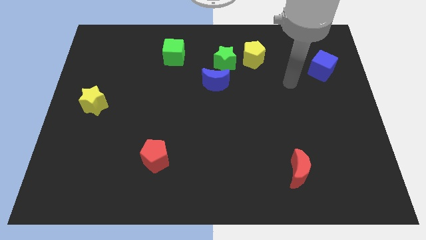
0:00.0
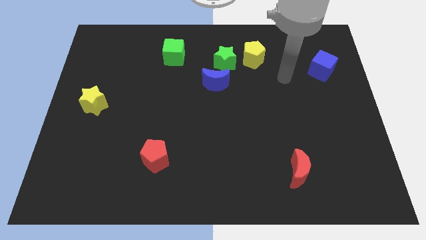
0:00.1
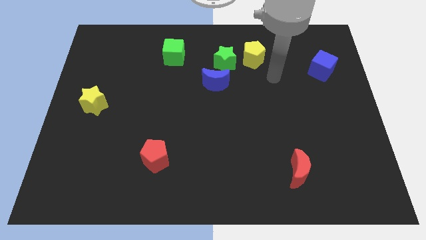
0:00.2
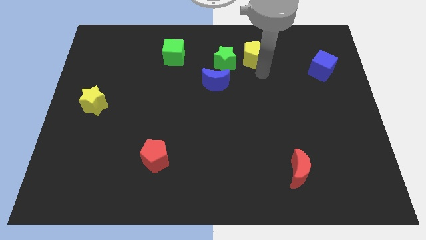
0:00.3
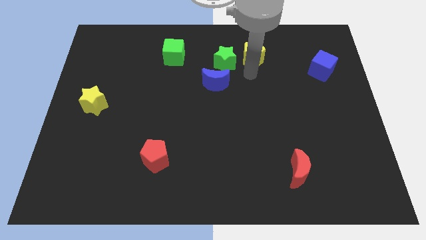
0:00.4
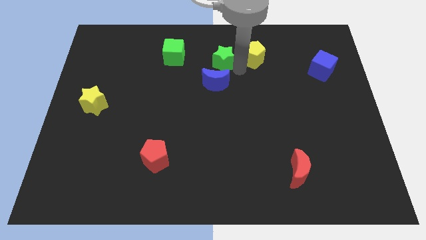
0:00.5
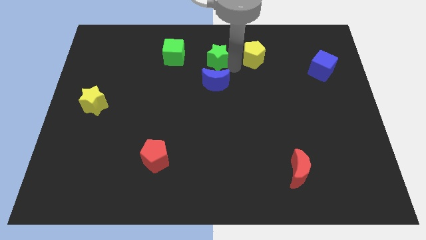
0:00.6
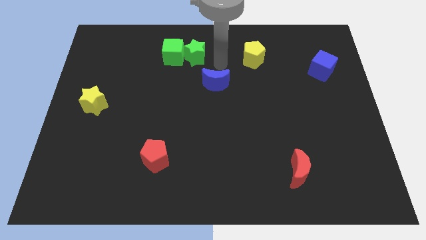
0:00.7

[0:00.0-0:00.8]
move the blue moon away from the green star

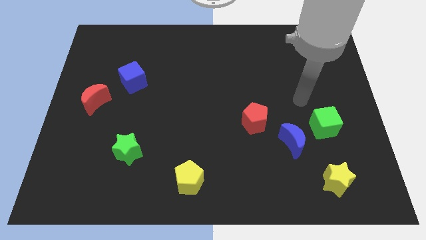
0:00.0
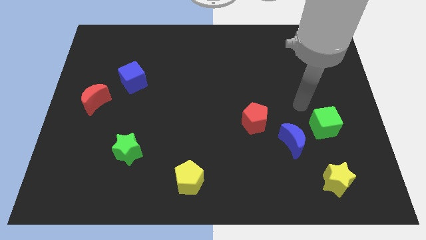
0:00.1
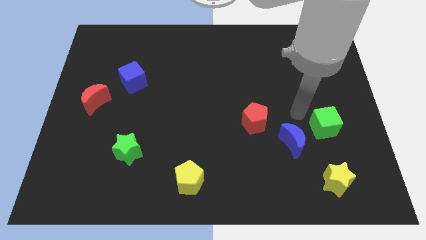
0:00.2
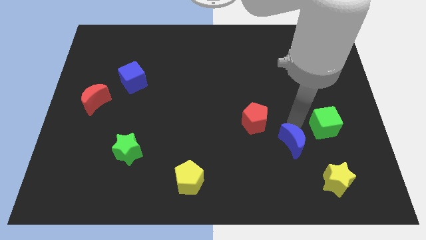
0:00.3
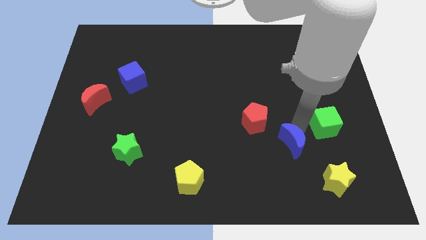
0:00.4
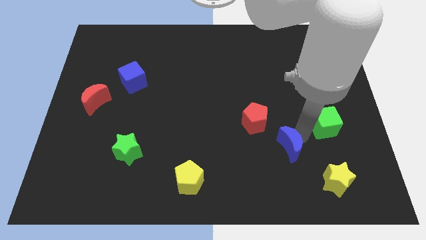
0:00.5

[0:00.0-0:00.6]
pull the green cube apart from the blue moon

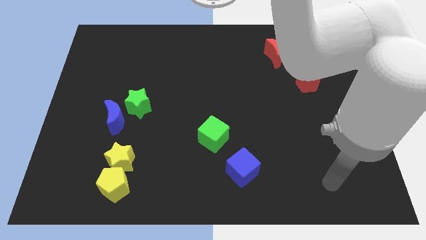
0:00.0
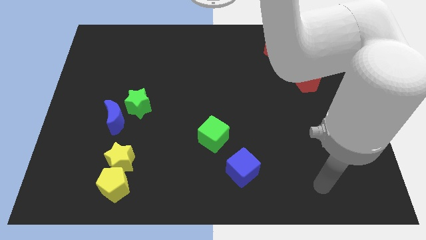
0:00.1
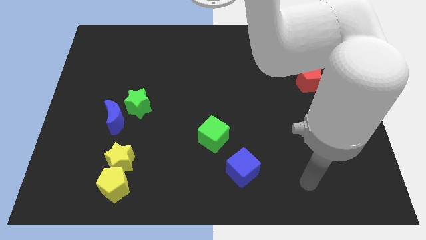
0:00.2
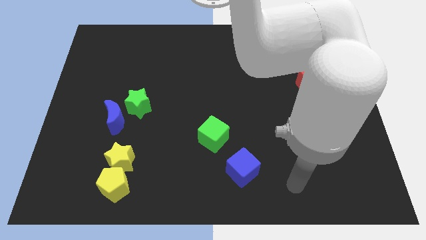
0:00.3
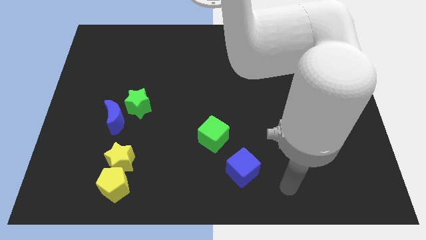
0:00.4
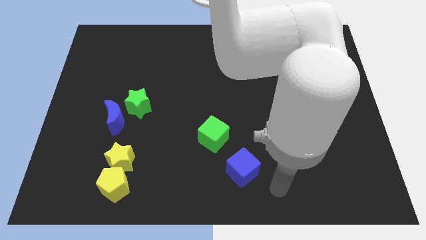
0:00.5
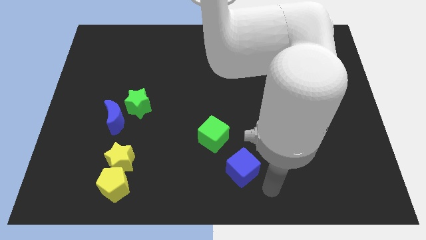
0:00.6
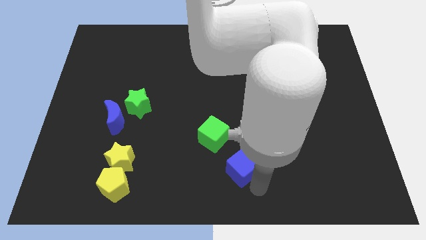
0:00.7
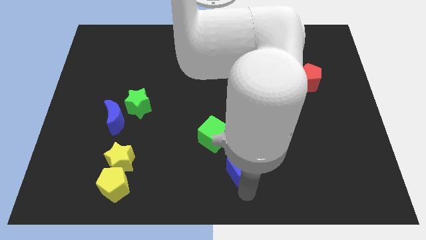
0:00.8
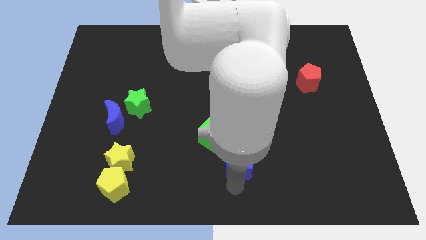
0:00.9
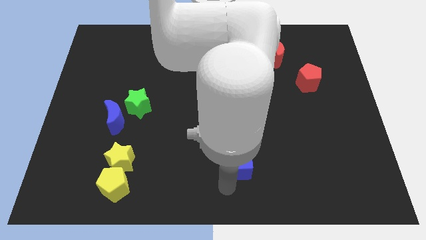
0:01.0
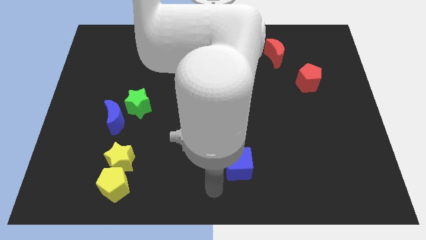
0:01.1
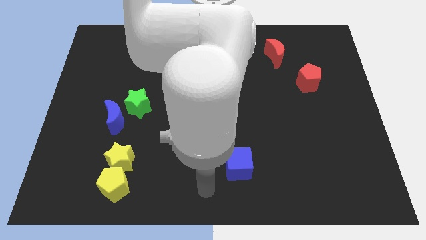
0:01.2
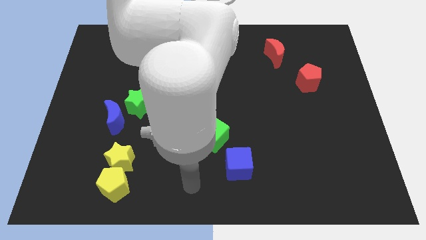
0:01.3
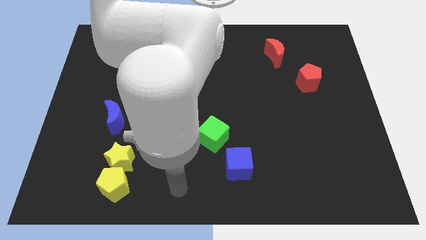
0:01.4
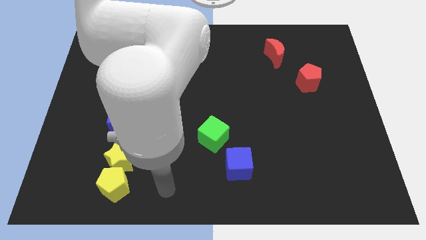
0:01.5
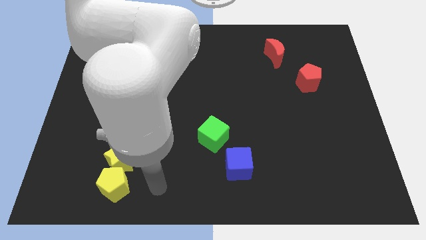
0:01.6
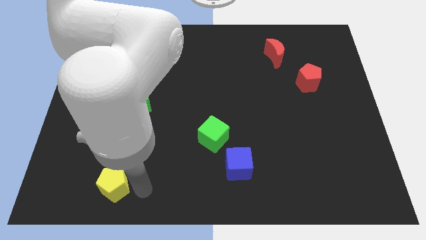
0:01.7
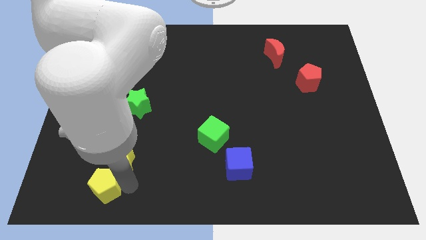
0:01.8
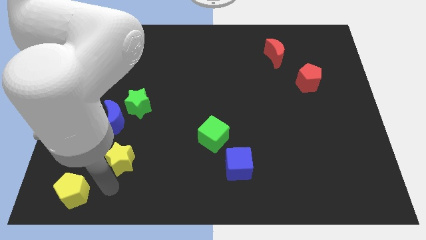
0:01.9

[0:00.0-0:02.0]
separate the yellow star from the yellow pentagon

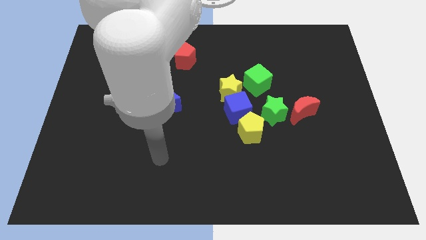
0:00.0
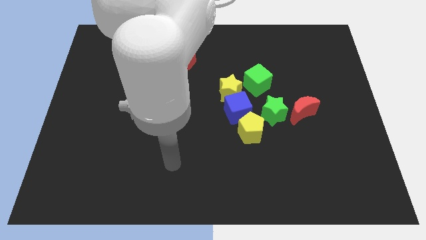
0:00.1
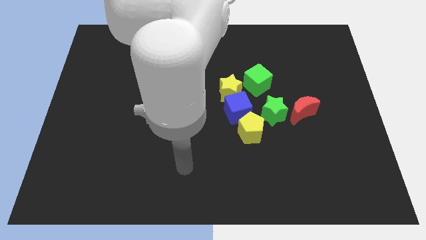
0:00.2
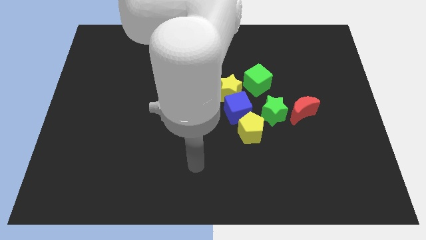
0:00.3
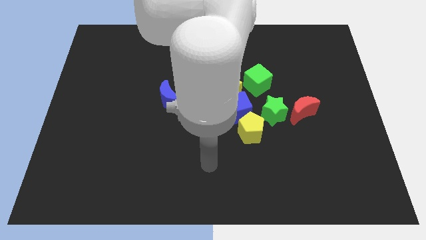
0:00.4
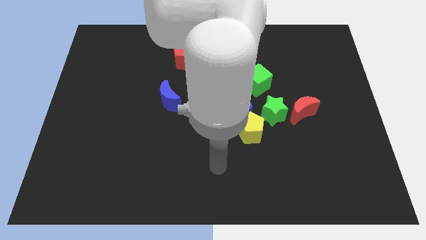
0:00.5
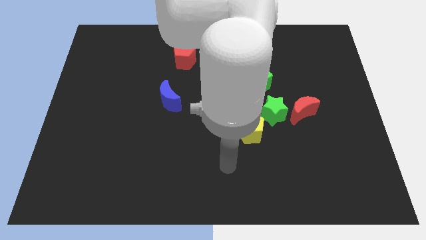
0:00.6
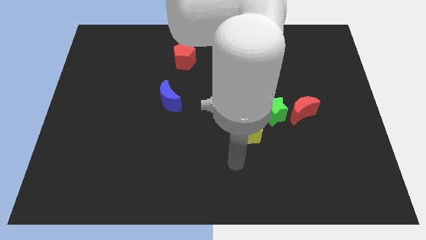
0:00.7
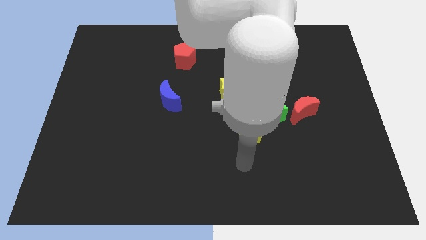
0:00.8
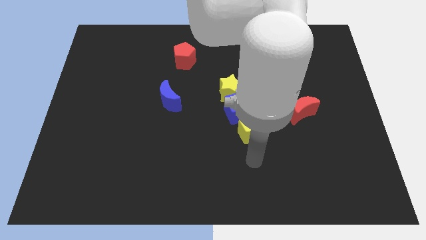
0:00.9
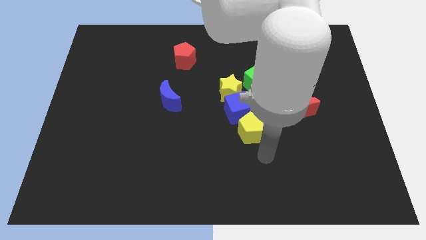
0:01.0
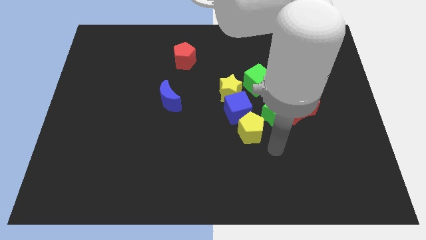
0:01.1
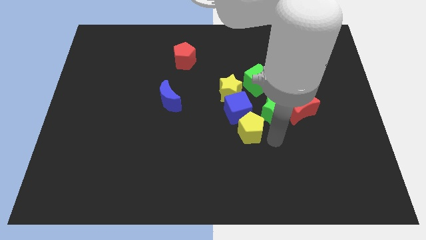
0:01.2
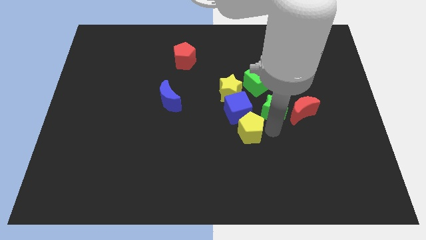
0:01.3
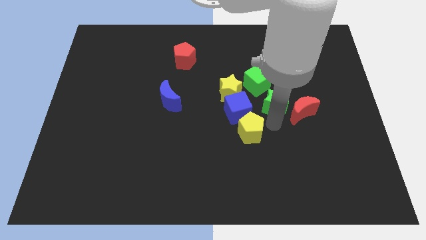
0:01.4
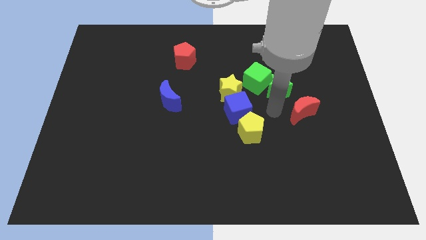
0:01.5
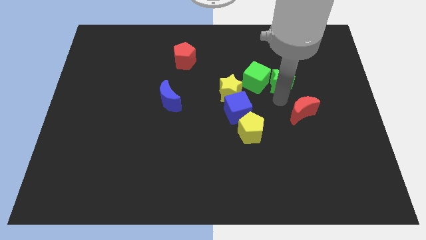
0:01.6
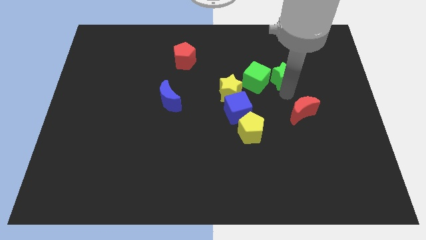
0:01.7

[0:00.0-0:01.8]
pull the red moon apart from the green star

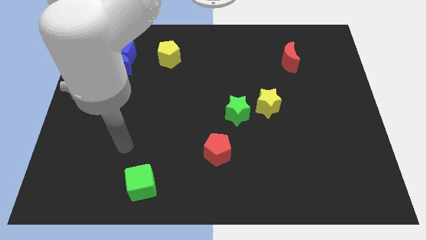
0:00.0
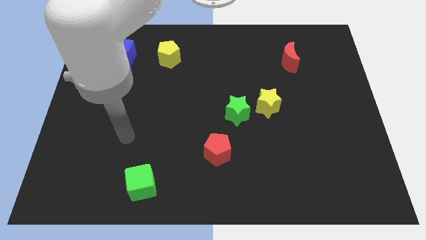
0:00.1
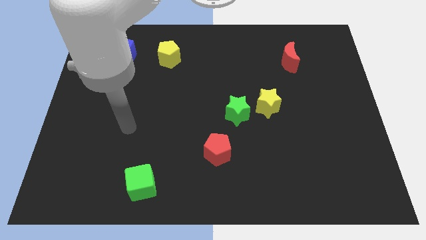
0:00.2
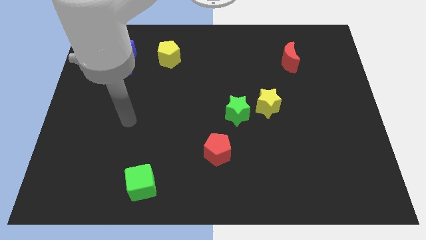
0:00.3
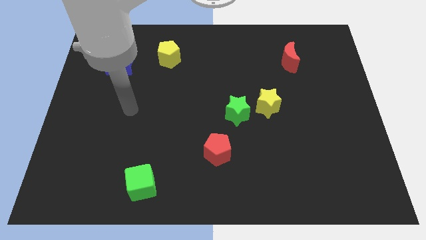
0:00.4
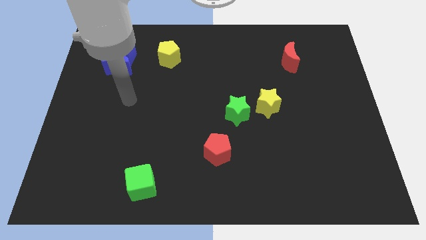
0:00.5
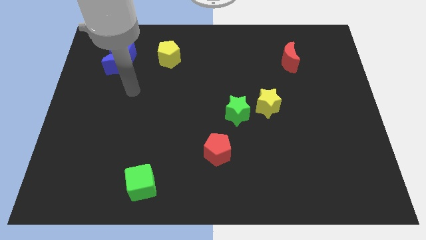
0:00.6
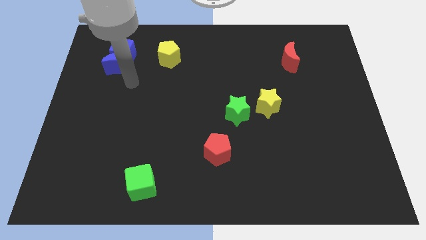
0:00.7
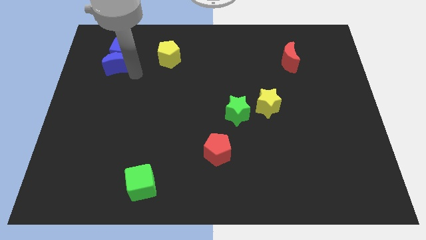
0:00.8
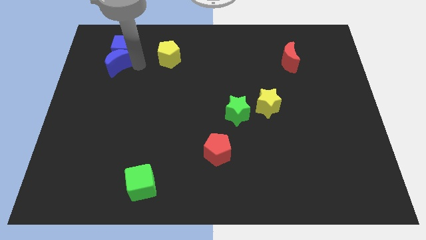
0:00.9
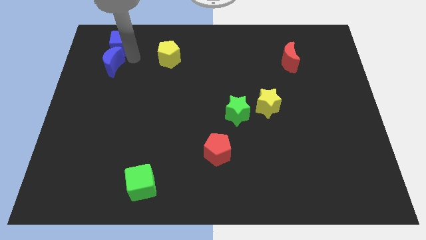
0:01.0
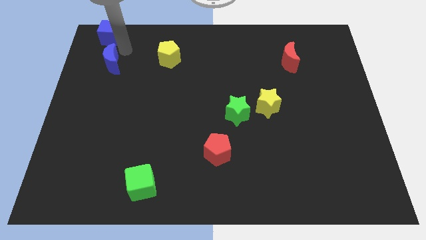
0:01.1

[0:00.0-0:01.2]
pull the blue moon apart from the blue cube

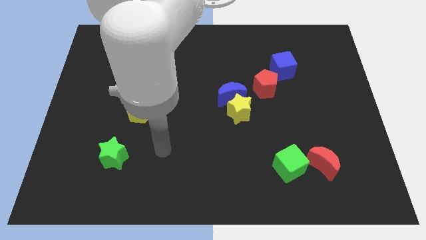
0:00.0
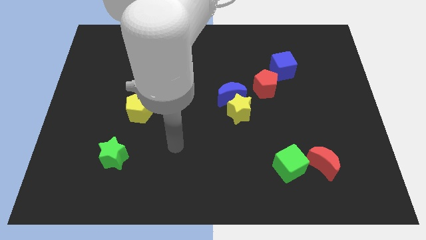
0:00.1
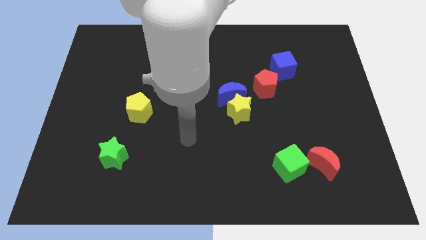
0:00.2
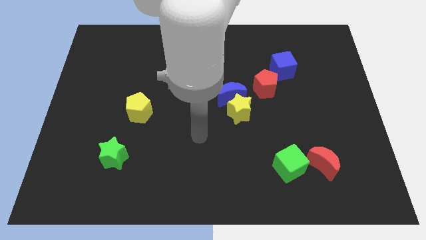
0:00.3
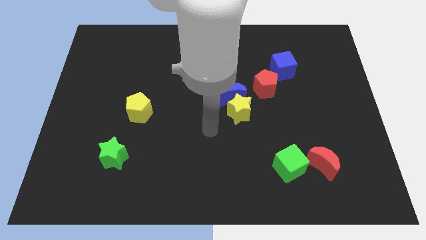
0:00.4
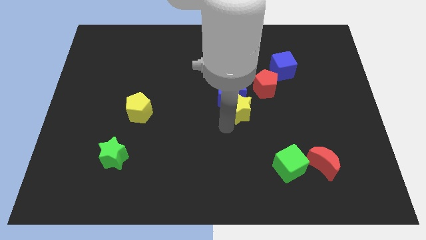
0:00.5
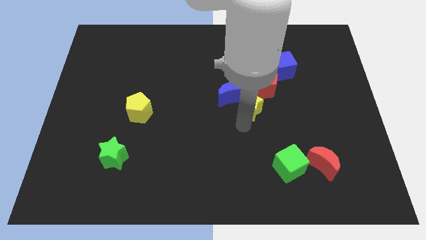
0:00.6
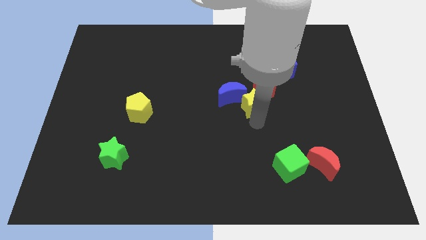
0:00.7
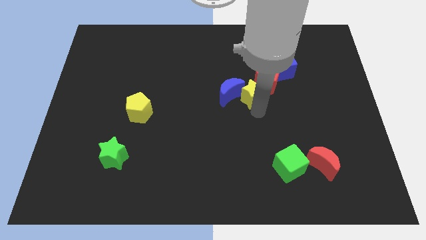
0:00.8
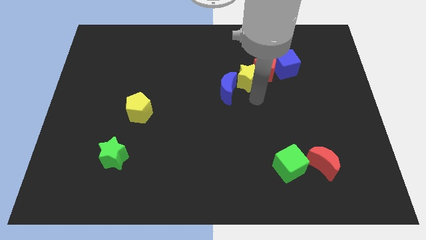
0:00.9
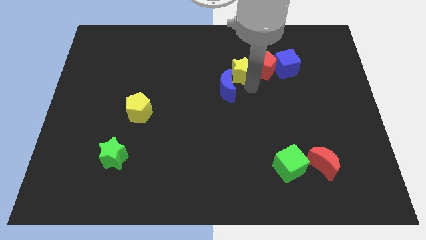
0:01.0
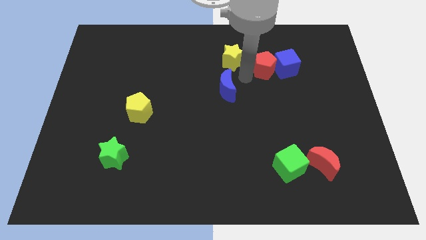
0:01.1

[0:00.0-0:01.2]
separate the blue moon from the yellow star and red pentagon

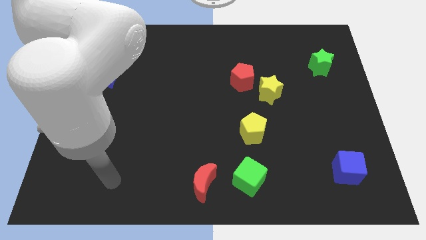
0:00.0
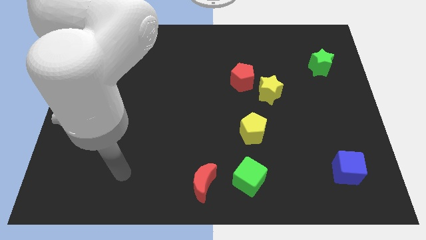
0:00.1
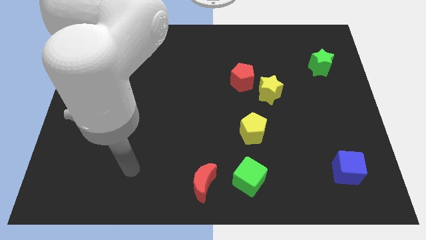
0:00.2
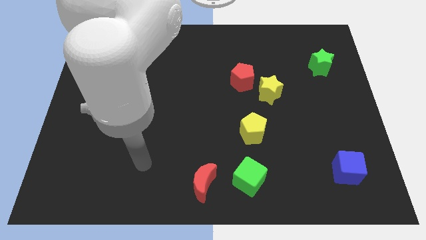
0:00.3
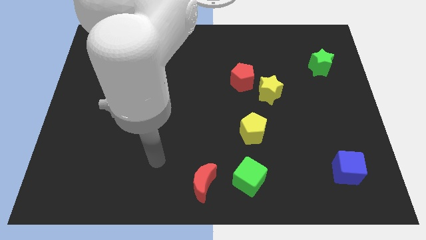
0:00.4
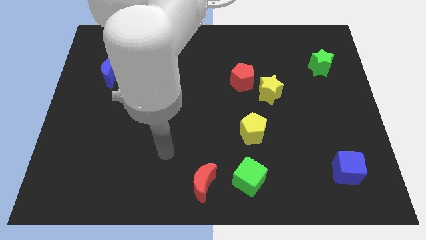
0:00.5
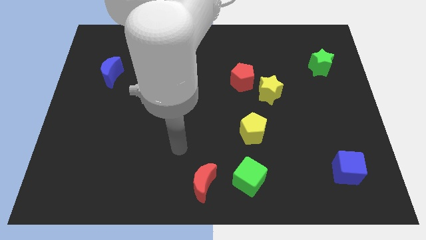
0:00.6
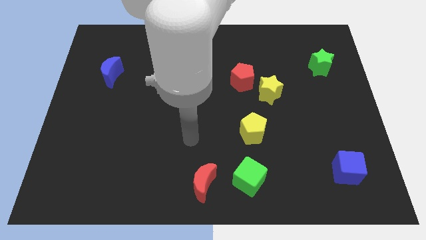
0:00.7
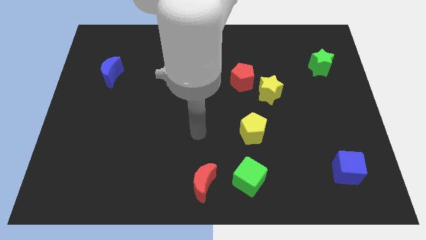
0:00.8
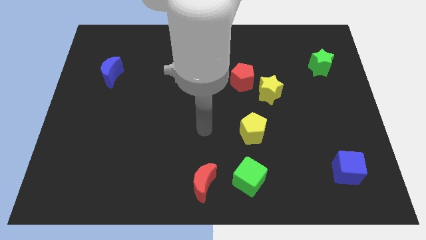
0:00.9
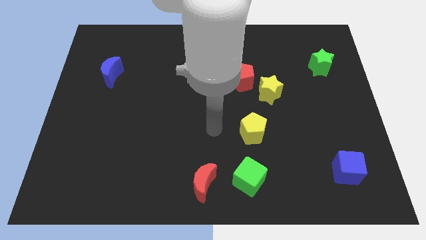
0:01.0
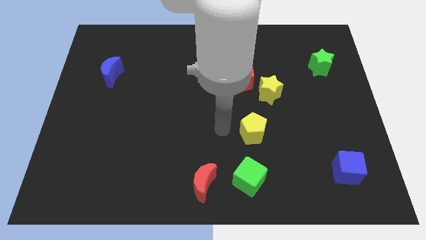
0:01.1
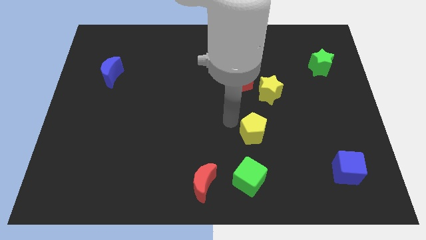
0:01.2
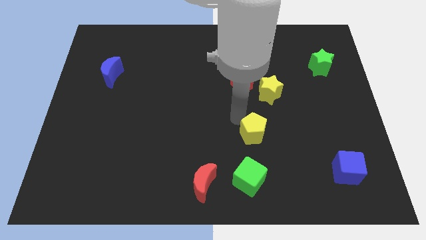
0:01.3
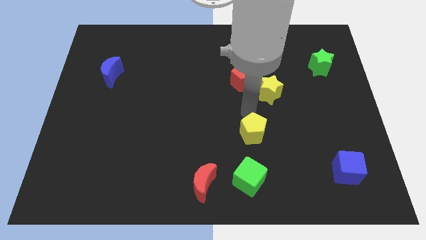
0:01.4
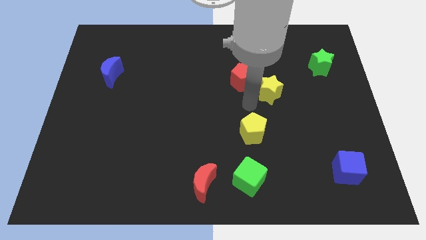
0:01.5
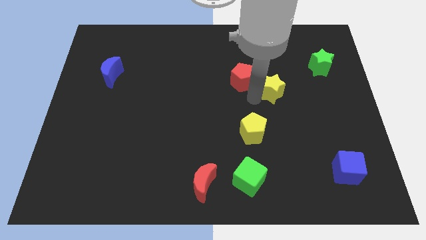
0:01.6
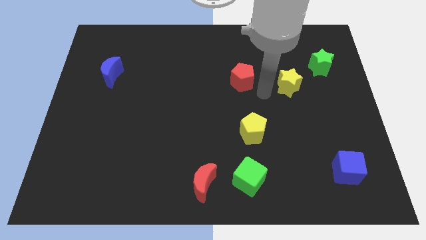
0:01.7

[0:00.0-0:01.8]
pull the red pentagon apart from the yellow star
